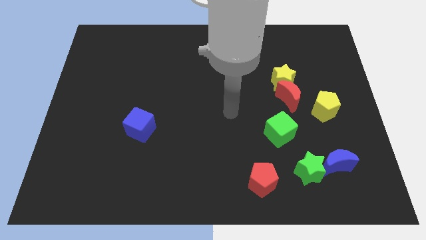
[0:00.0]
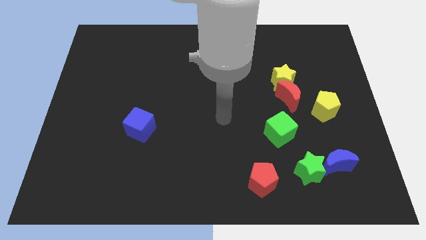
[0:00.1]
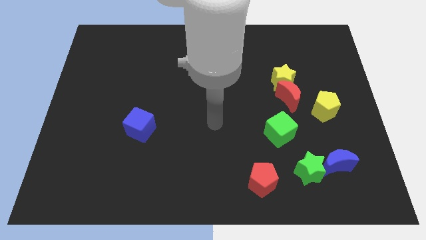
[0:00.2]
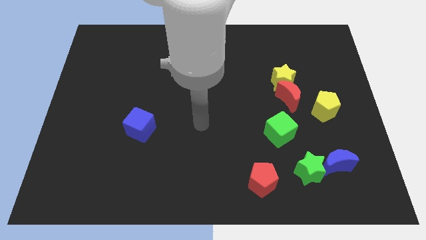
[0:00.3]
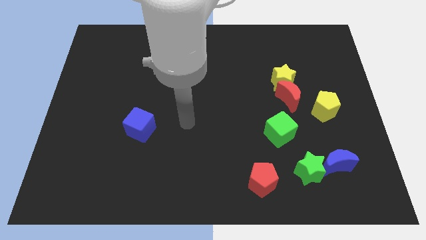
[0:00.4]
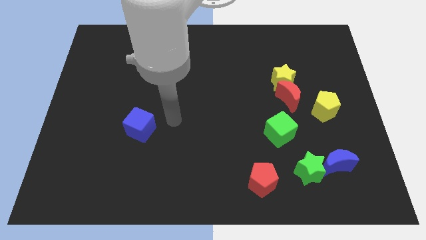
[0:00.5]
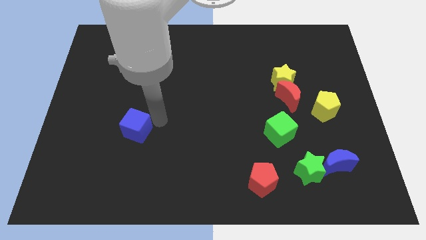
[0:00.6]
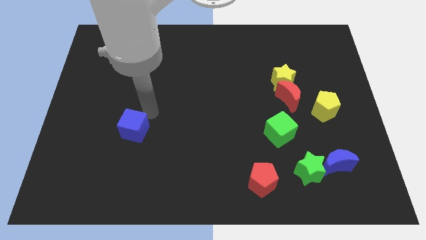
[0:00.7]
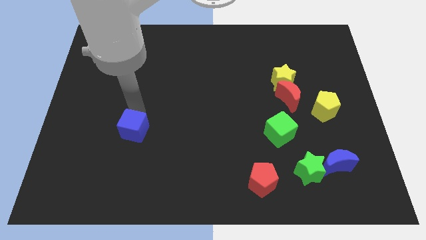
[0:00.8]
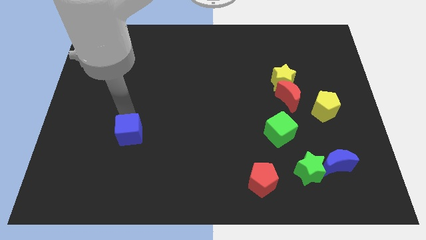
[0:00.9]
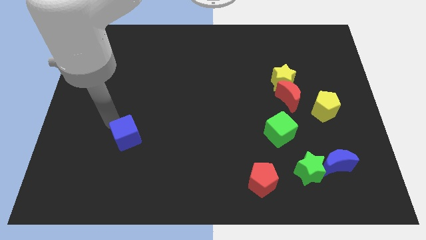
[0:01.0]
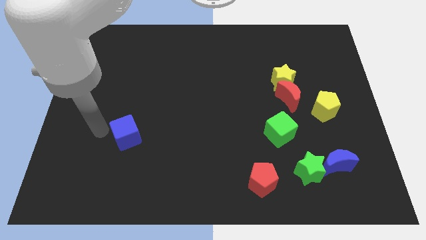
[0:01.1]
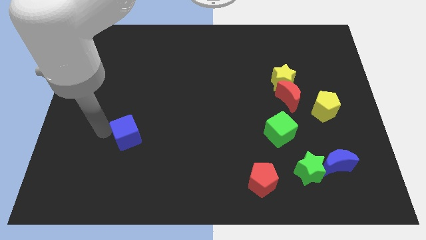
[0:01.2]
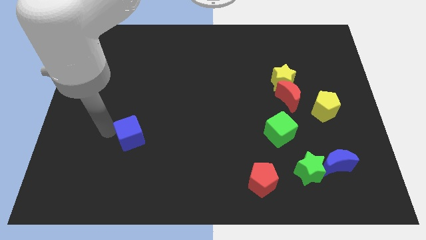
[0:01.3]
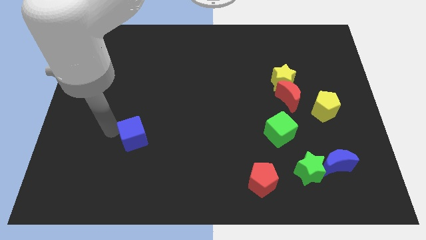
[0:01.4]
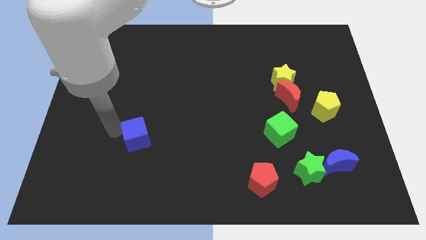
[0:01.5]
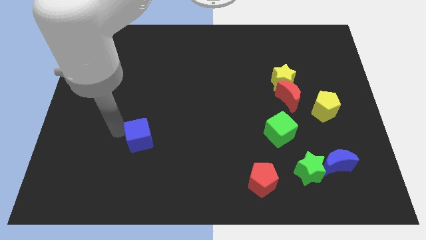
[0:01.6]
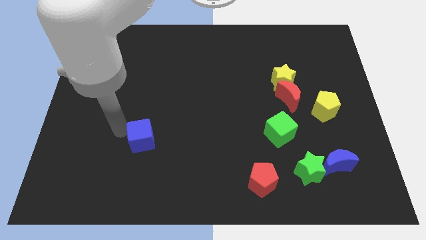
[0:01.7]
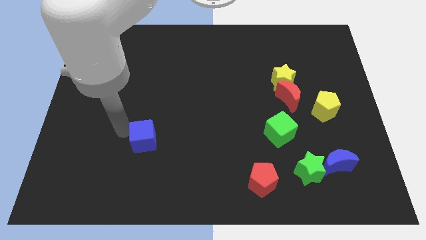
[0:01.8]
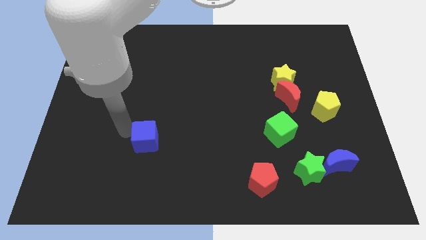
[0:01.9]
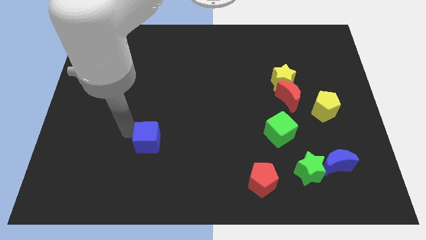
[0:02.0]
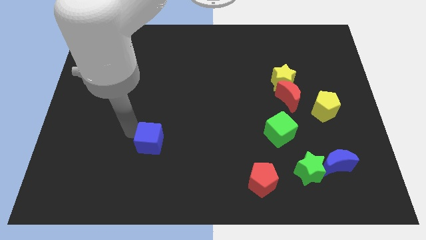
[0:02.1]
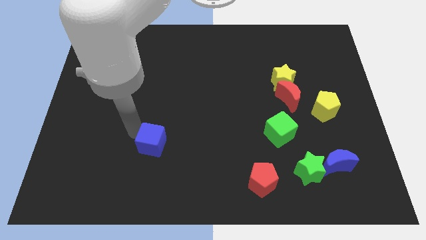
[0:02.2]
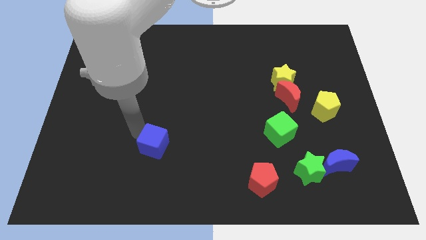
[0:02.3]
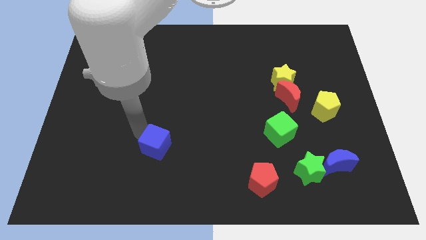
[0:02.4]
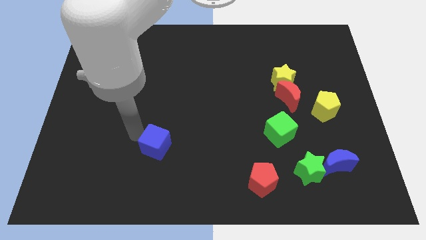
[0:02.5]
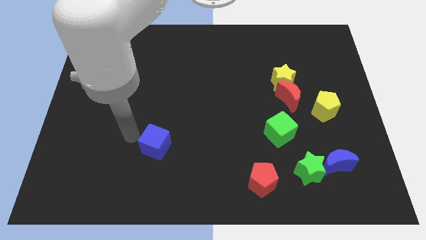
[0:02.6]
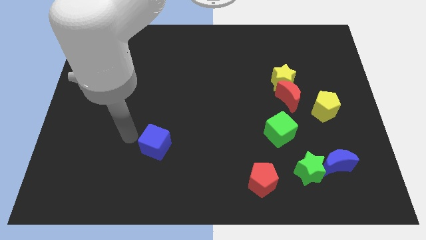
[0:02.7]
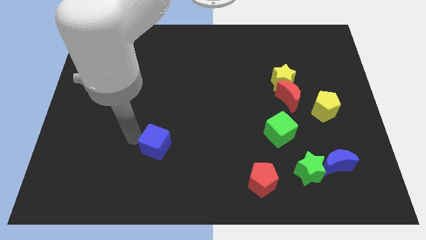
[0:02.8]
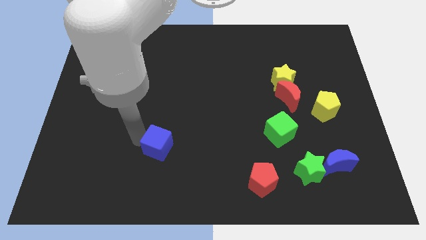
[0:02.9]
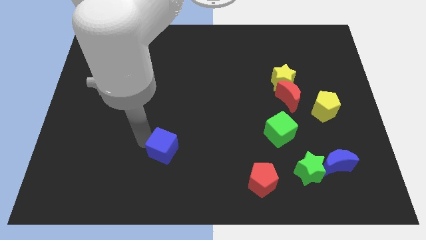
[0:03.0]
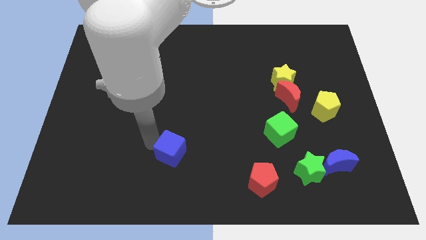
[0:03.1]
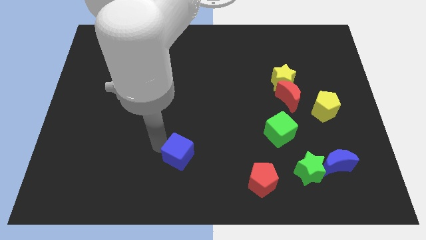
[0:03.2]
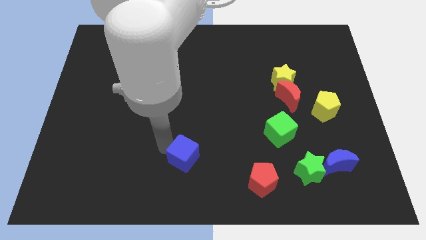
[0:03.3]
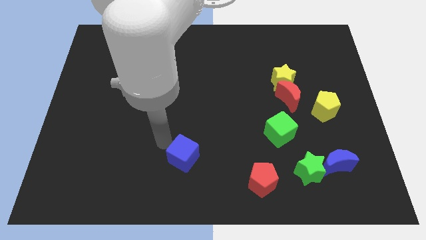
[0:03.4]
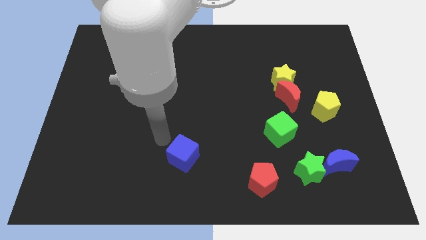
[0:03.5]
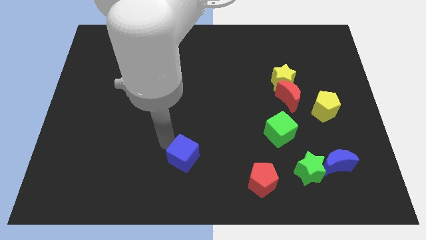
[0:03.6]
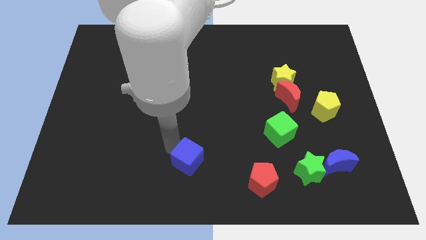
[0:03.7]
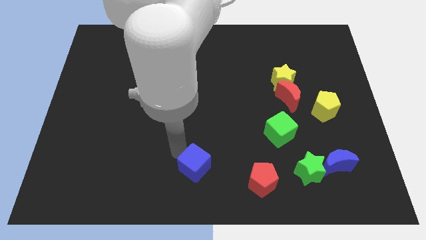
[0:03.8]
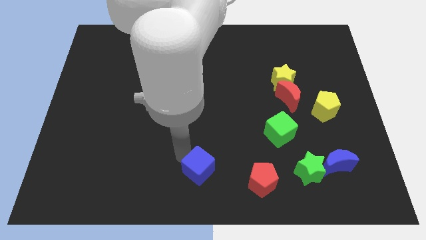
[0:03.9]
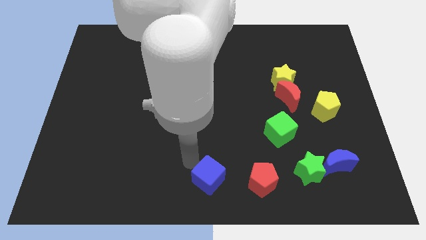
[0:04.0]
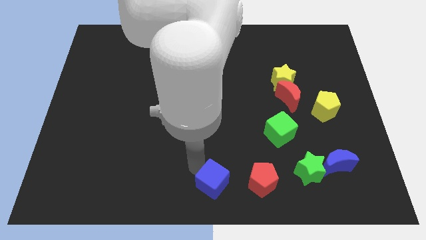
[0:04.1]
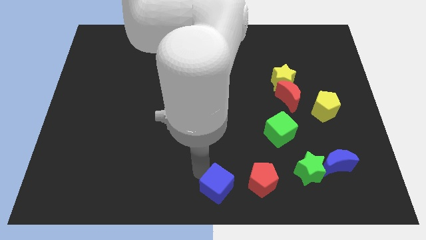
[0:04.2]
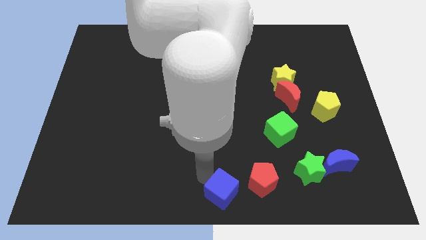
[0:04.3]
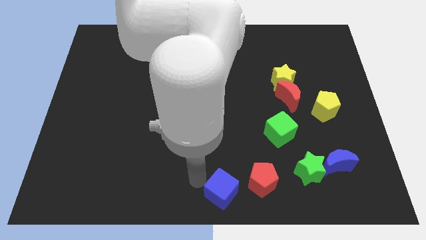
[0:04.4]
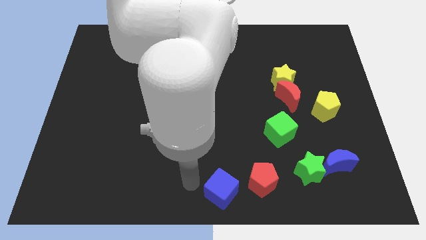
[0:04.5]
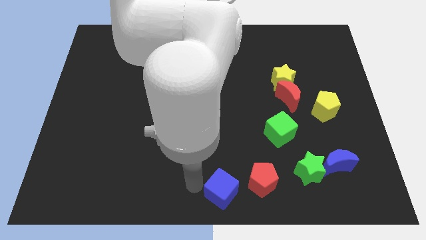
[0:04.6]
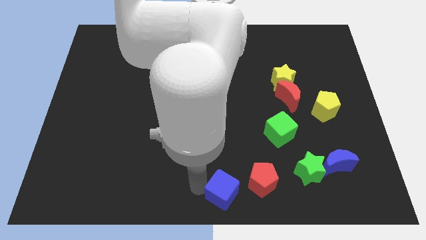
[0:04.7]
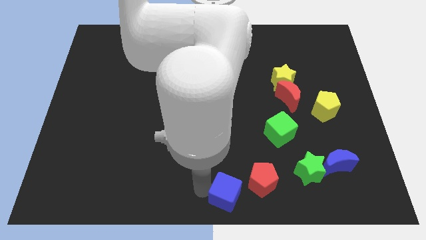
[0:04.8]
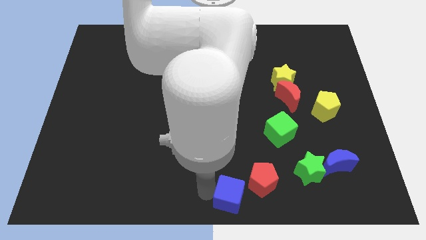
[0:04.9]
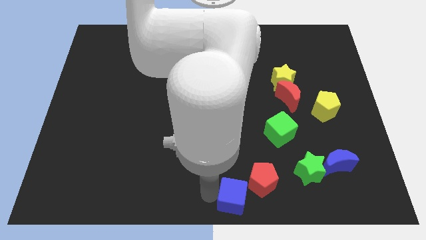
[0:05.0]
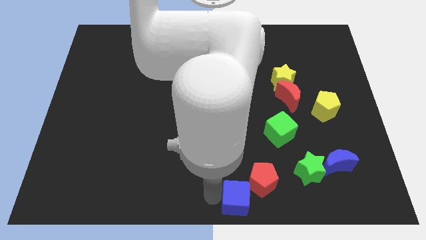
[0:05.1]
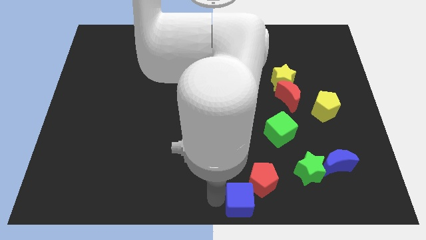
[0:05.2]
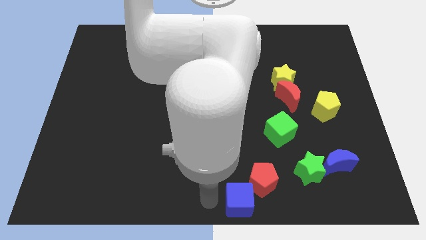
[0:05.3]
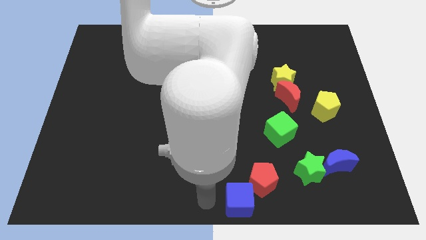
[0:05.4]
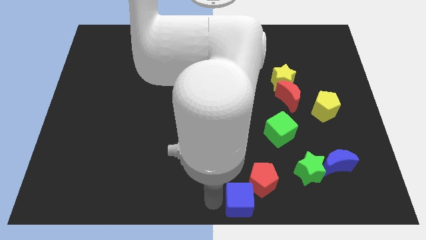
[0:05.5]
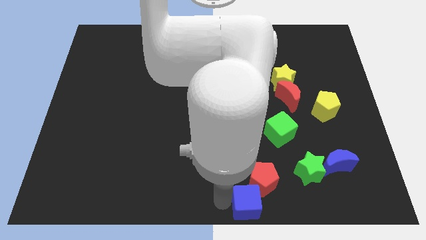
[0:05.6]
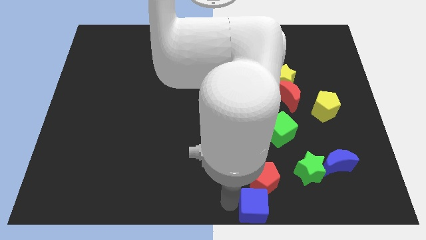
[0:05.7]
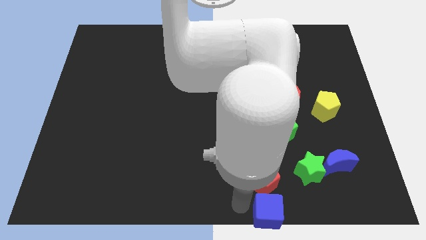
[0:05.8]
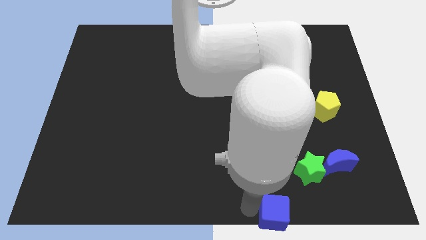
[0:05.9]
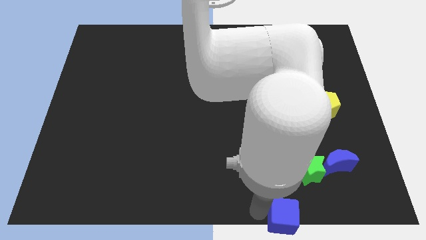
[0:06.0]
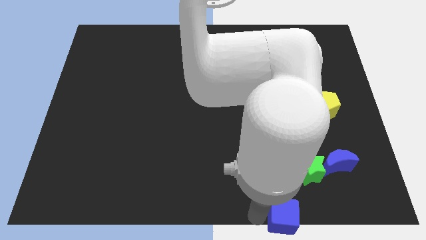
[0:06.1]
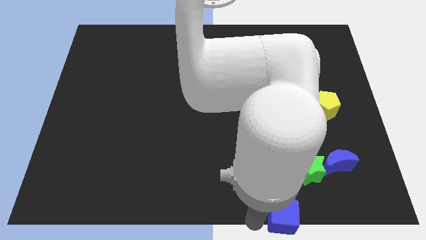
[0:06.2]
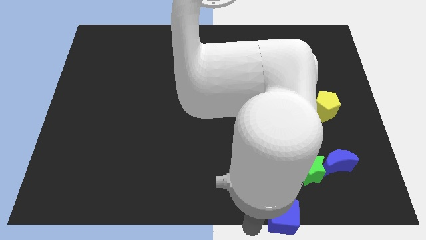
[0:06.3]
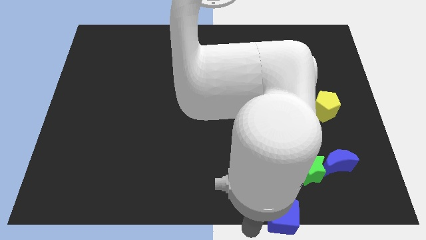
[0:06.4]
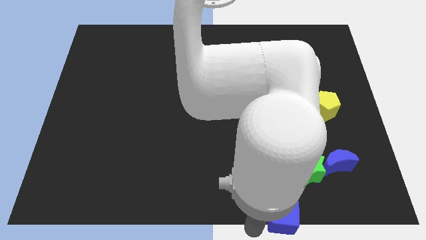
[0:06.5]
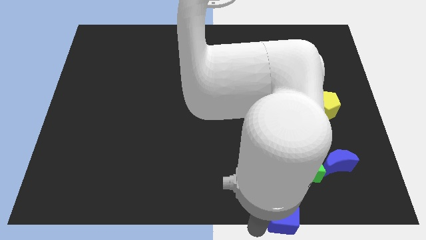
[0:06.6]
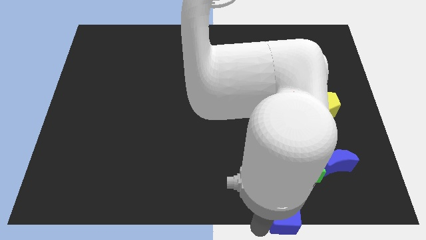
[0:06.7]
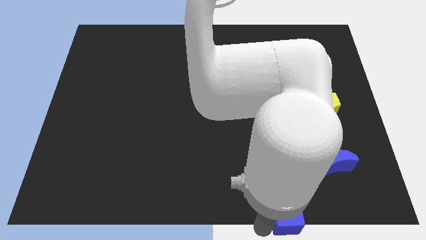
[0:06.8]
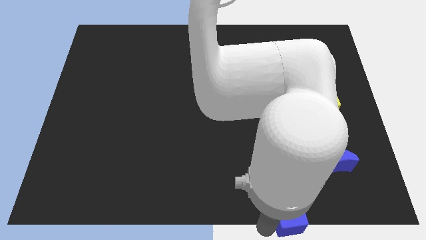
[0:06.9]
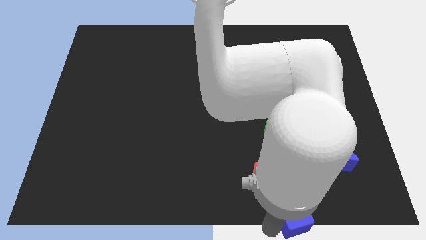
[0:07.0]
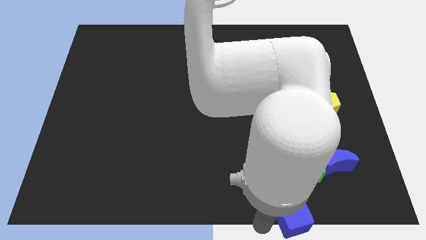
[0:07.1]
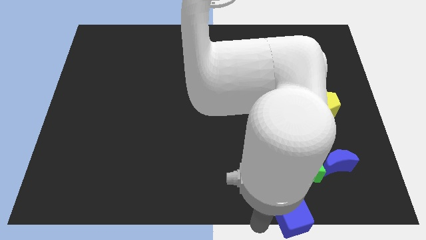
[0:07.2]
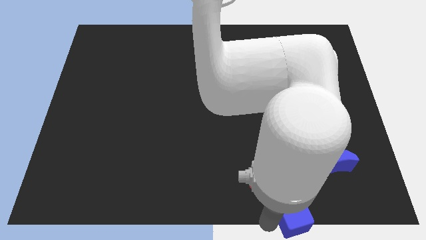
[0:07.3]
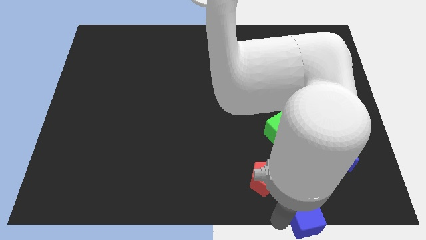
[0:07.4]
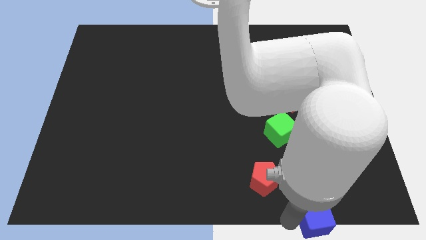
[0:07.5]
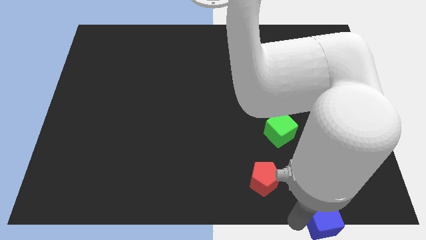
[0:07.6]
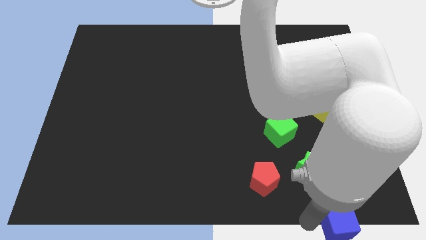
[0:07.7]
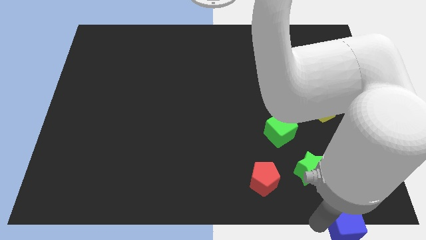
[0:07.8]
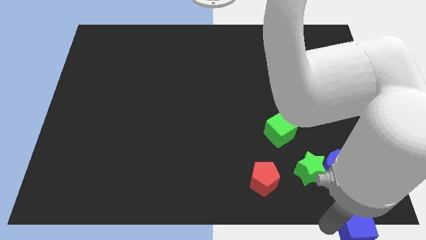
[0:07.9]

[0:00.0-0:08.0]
move the blue cube to the lower right corner
